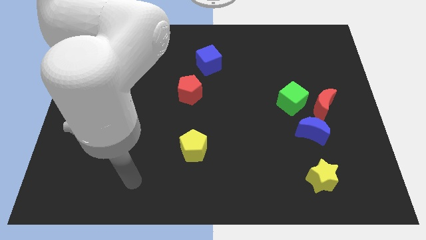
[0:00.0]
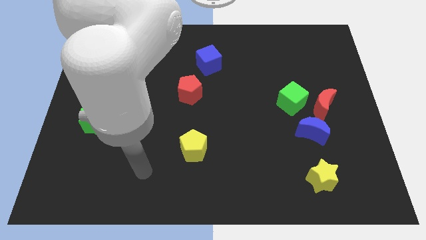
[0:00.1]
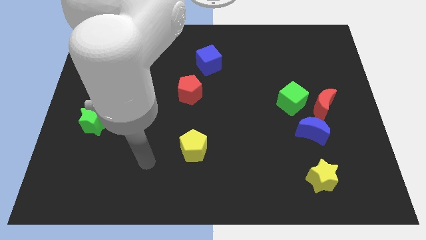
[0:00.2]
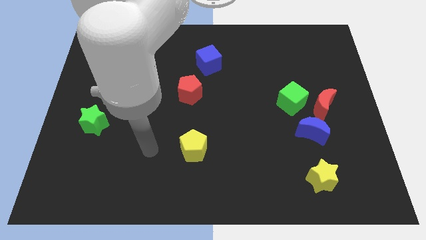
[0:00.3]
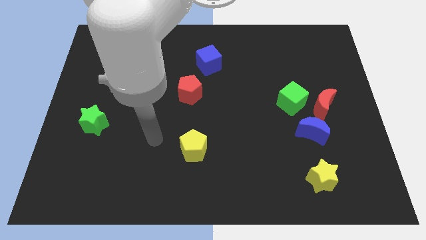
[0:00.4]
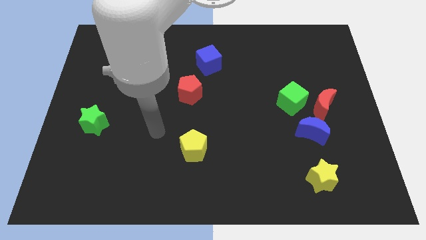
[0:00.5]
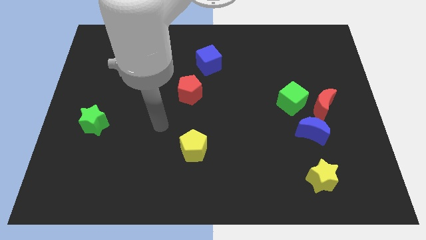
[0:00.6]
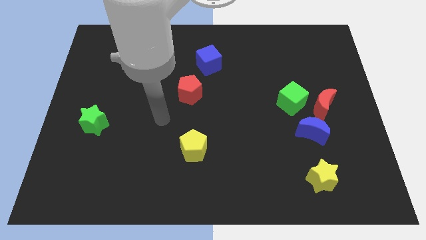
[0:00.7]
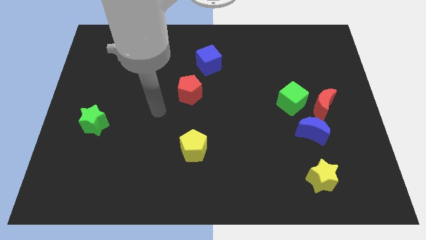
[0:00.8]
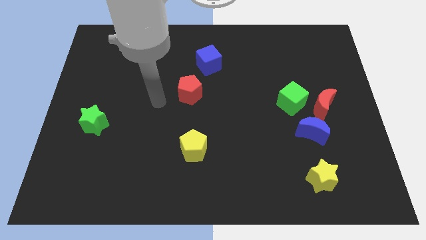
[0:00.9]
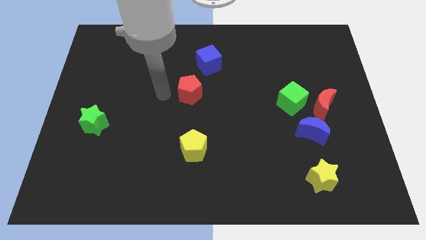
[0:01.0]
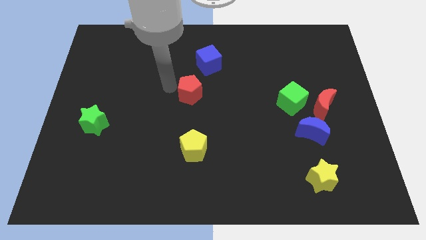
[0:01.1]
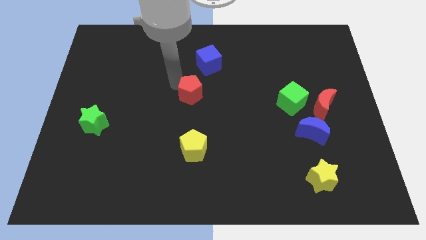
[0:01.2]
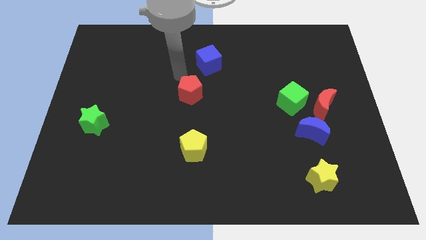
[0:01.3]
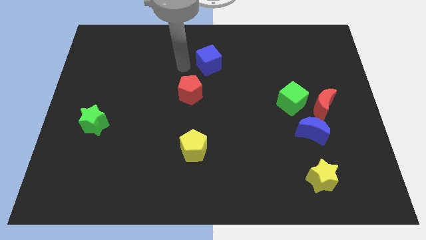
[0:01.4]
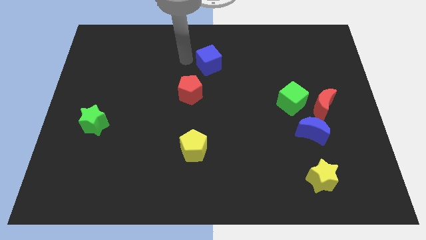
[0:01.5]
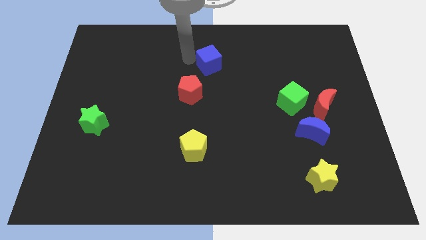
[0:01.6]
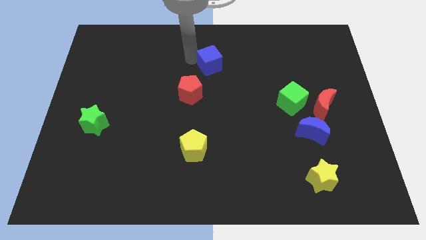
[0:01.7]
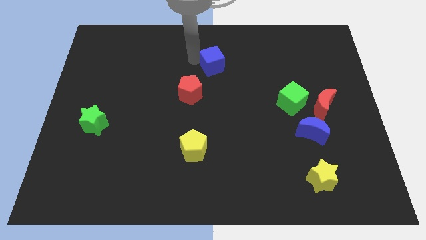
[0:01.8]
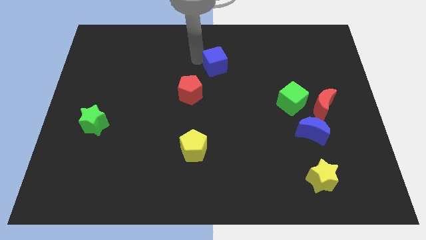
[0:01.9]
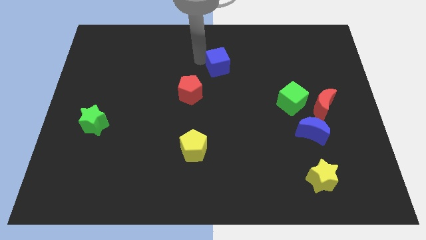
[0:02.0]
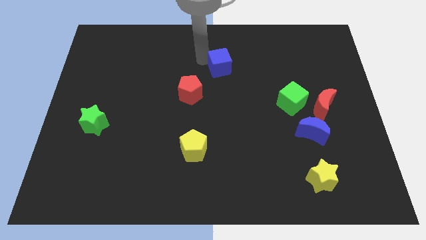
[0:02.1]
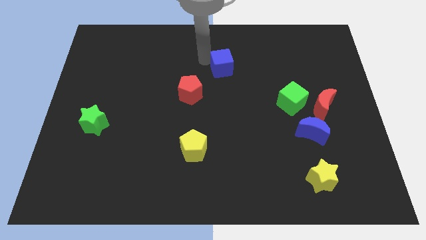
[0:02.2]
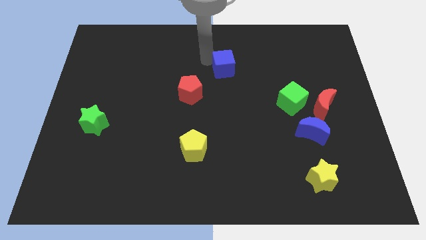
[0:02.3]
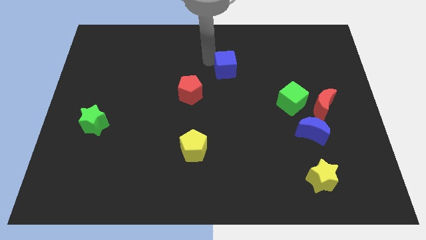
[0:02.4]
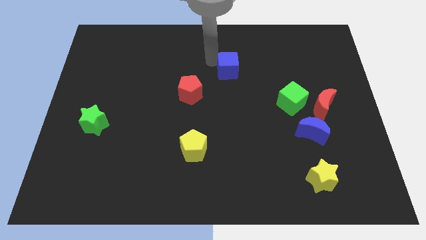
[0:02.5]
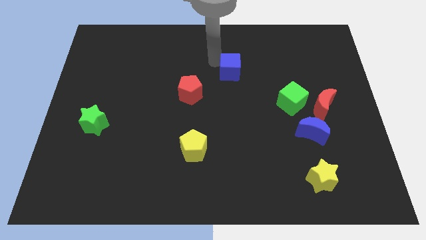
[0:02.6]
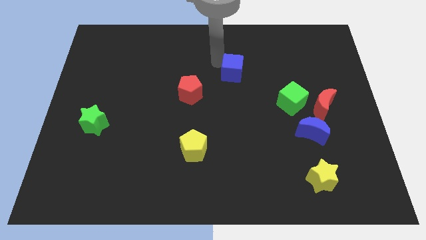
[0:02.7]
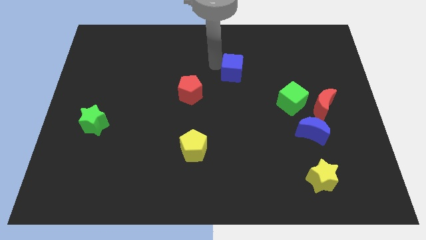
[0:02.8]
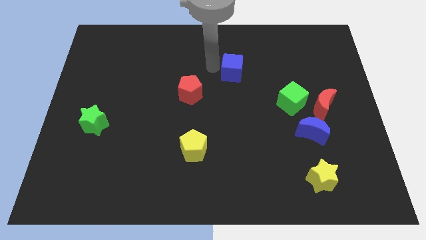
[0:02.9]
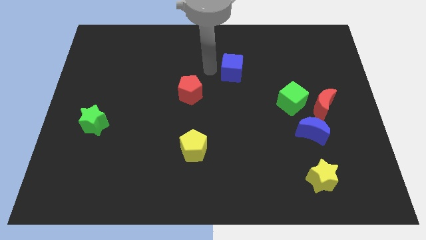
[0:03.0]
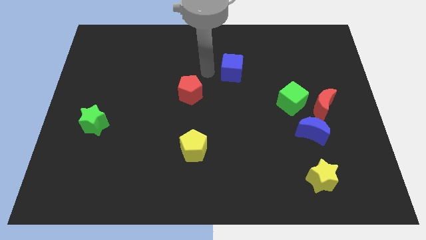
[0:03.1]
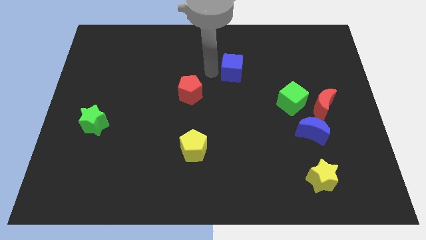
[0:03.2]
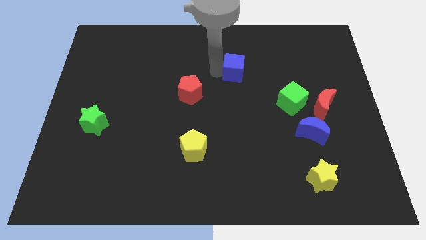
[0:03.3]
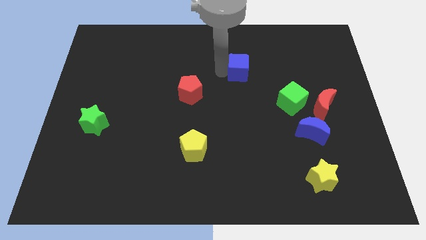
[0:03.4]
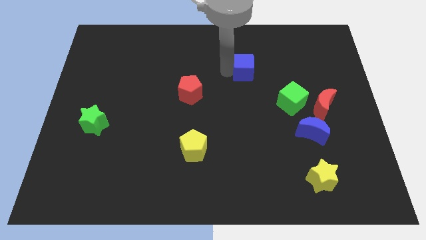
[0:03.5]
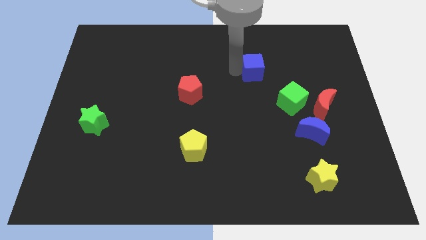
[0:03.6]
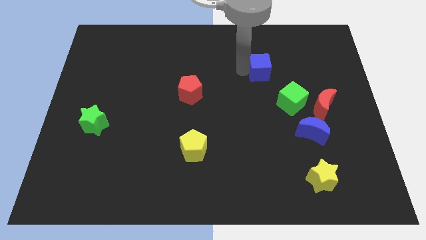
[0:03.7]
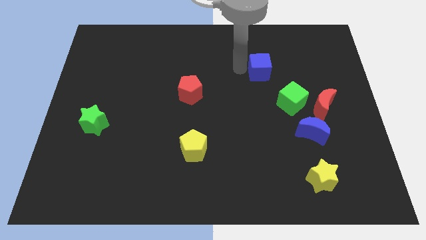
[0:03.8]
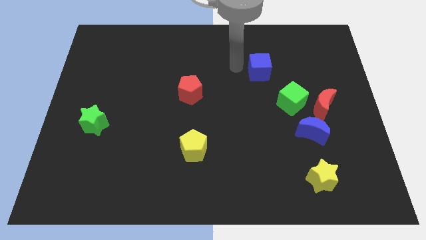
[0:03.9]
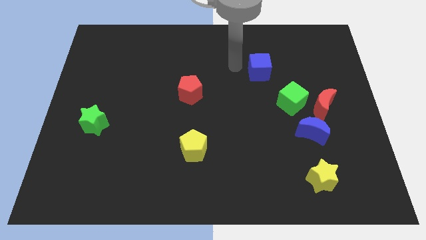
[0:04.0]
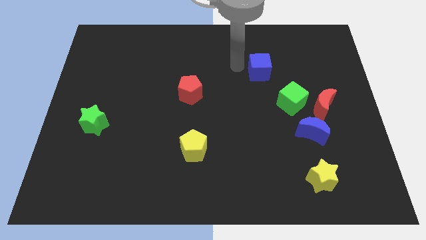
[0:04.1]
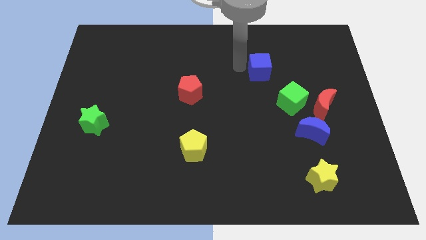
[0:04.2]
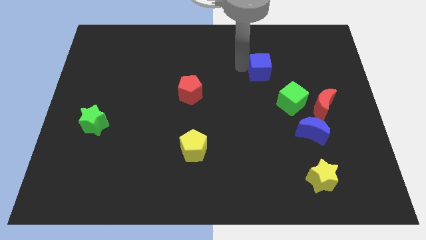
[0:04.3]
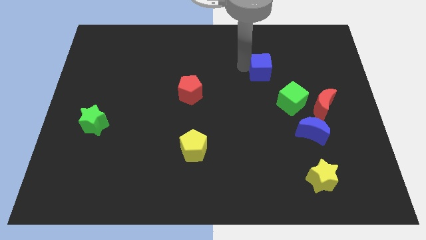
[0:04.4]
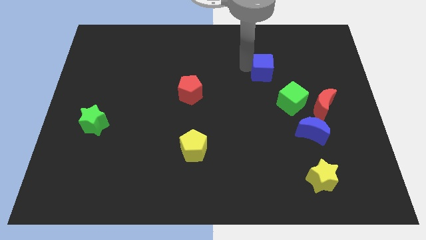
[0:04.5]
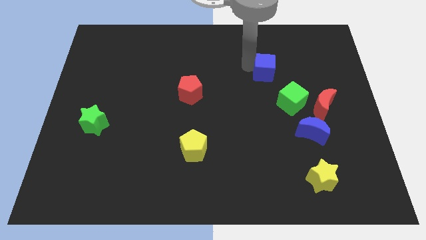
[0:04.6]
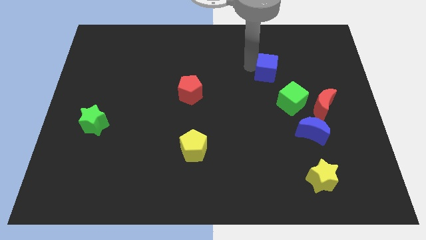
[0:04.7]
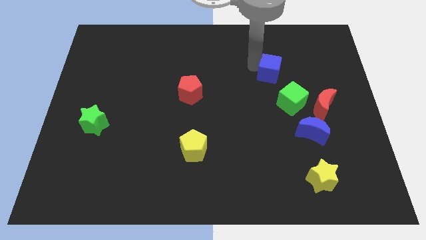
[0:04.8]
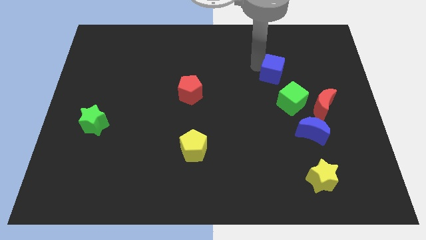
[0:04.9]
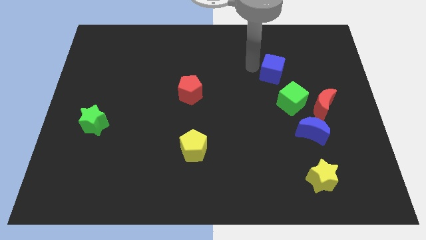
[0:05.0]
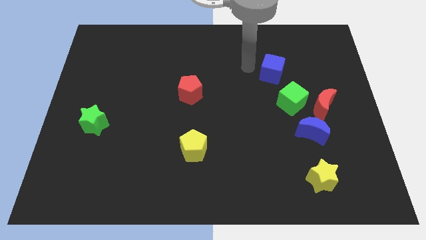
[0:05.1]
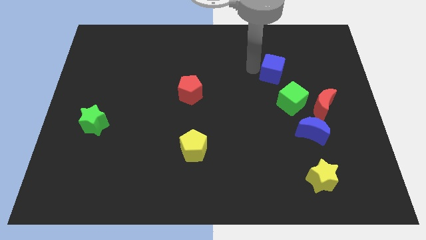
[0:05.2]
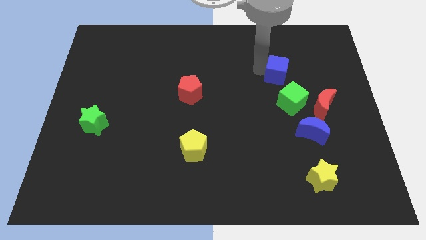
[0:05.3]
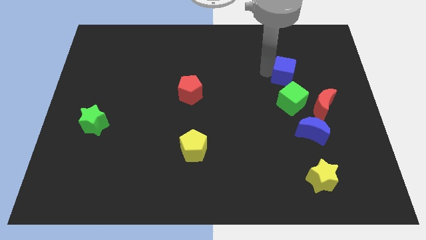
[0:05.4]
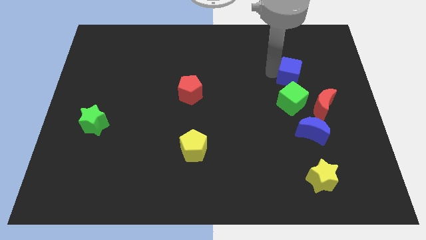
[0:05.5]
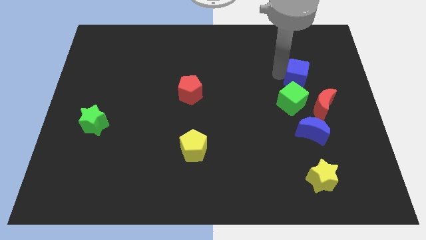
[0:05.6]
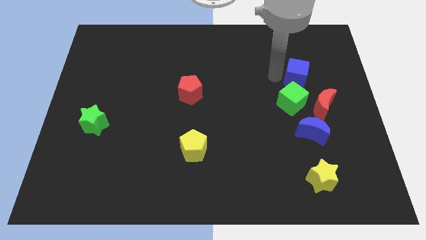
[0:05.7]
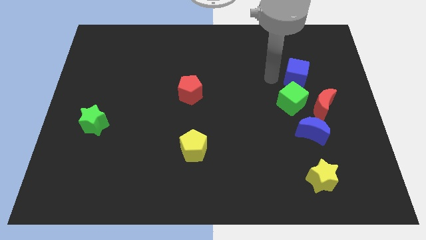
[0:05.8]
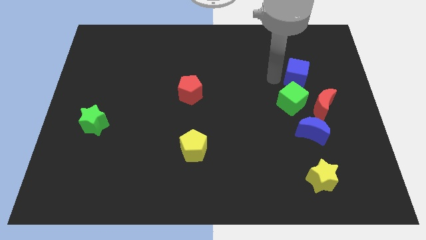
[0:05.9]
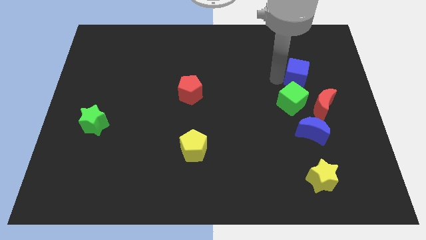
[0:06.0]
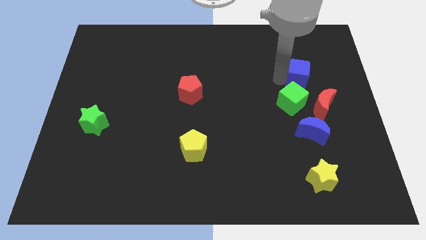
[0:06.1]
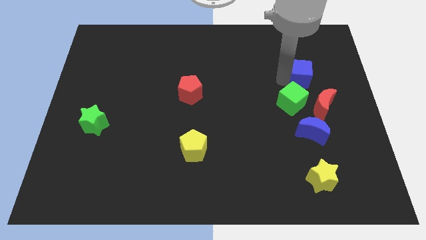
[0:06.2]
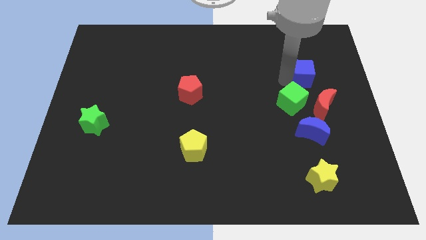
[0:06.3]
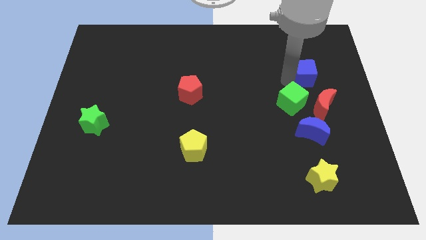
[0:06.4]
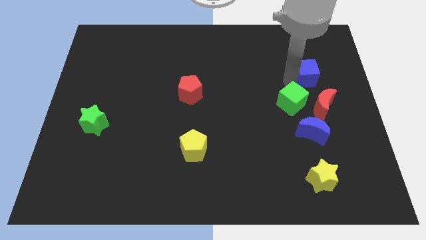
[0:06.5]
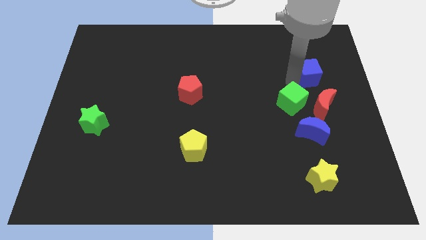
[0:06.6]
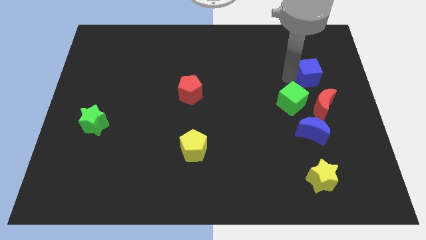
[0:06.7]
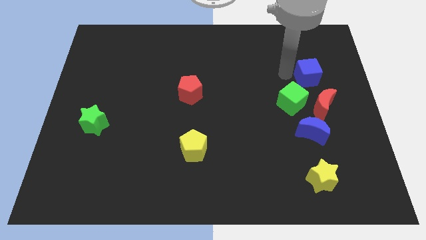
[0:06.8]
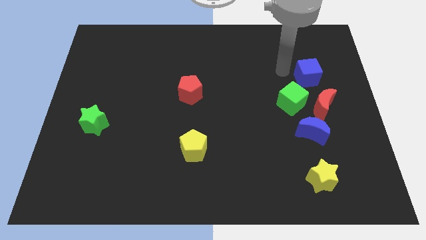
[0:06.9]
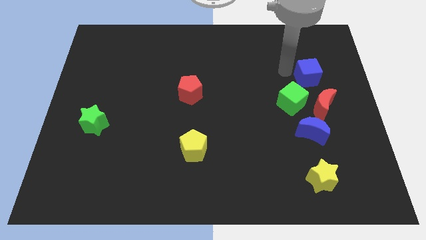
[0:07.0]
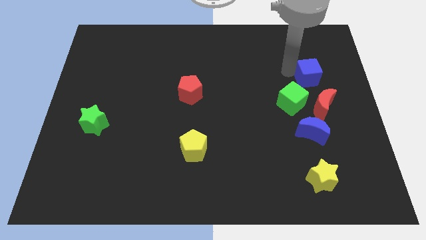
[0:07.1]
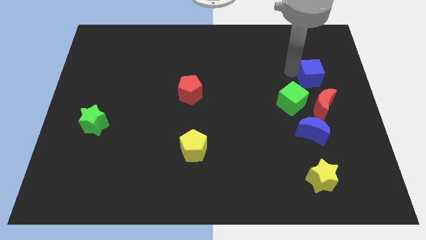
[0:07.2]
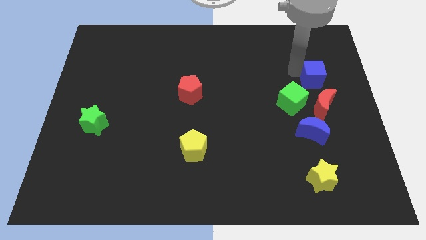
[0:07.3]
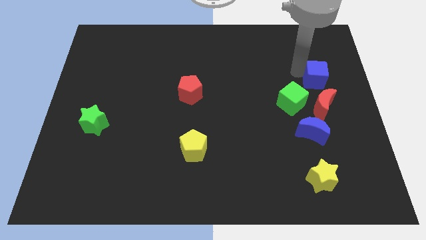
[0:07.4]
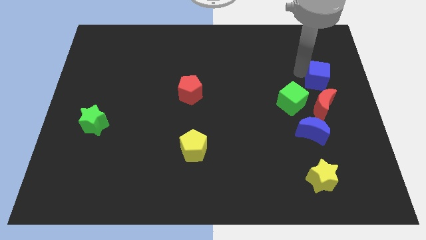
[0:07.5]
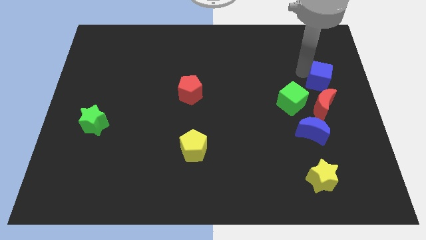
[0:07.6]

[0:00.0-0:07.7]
move the blue cube to the center right
